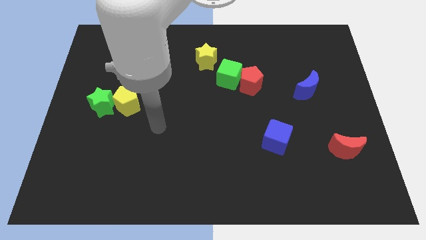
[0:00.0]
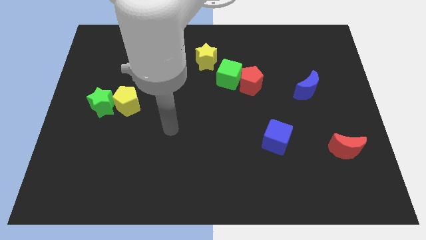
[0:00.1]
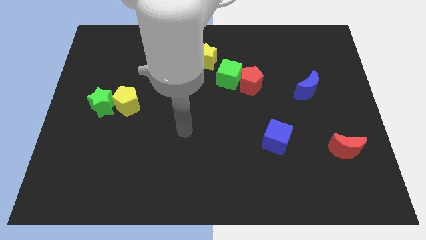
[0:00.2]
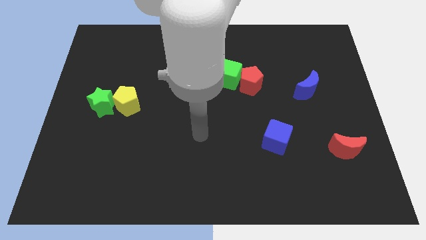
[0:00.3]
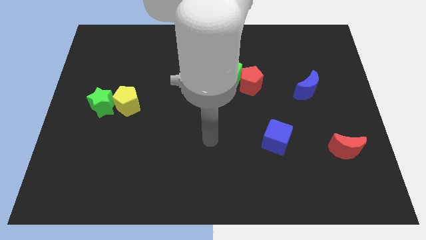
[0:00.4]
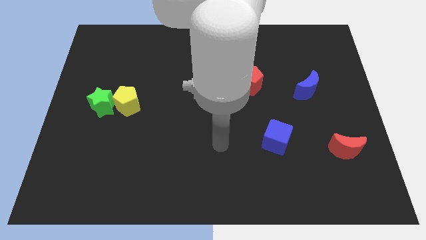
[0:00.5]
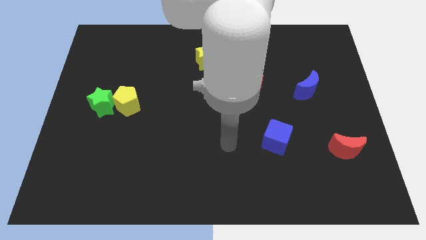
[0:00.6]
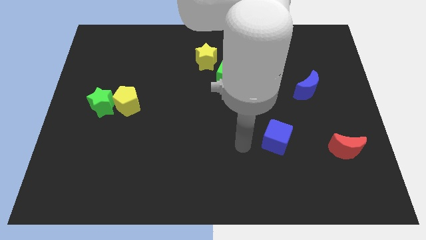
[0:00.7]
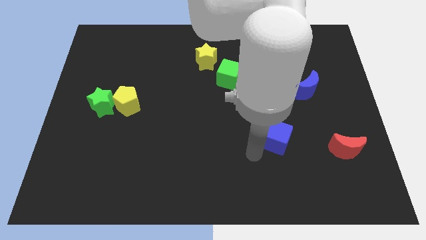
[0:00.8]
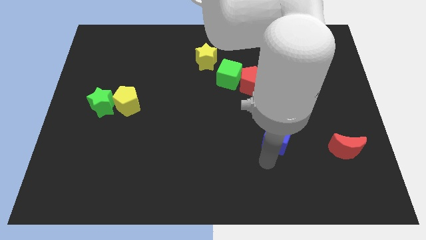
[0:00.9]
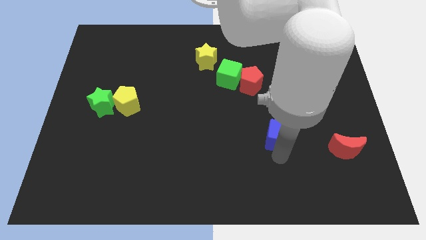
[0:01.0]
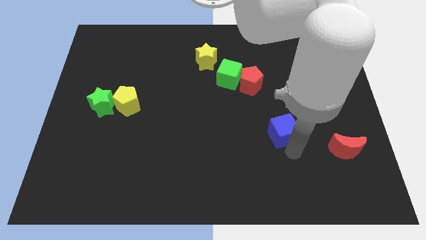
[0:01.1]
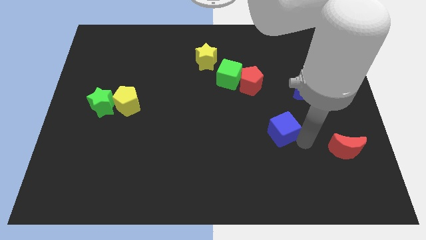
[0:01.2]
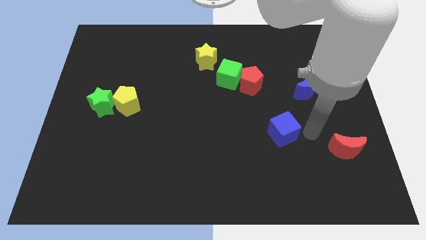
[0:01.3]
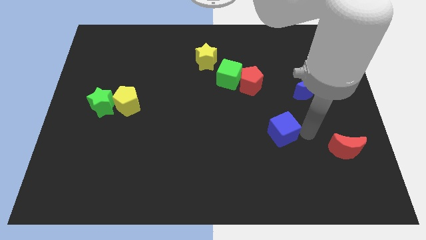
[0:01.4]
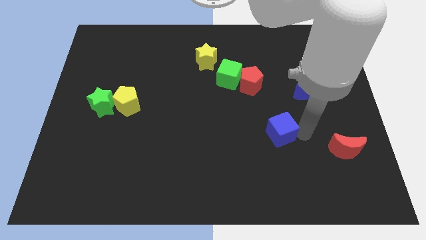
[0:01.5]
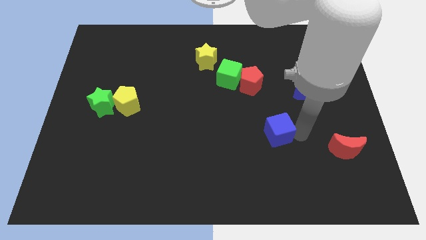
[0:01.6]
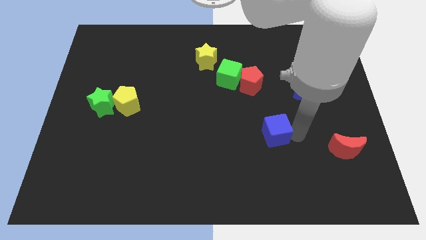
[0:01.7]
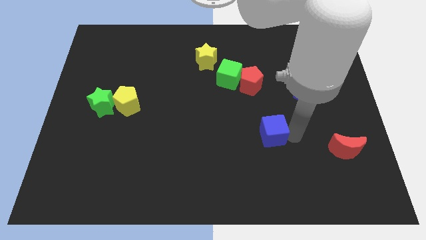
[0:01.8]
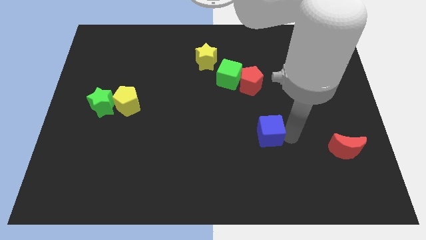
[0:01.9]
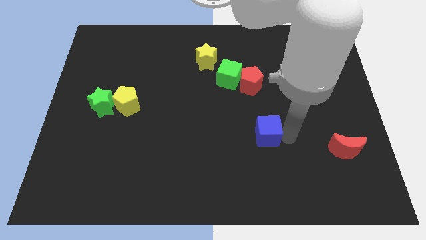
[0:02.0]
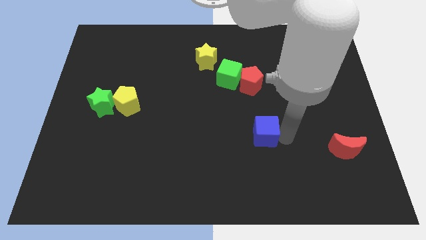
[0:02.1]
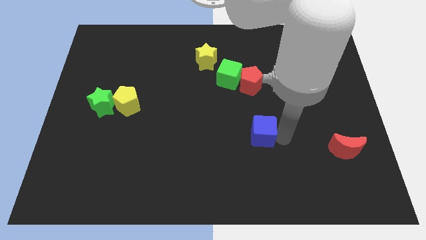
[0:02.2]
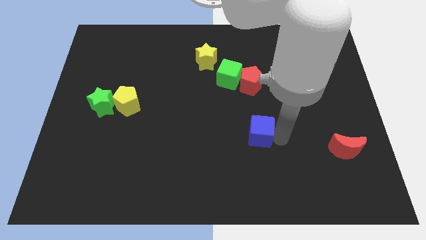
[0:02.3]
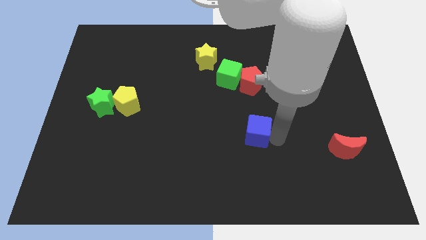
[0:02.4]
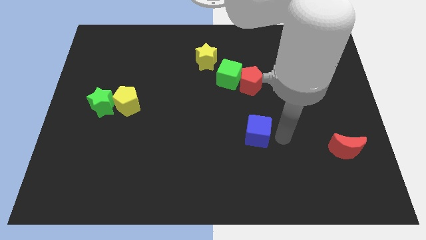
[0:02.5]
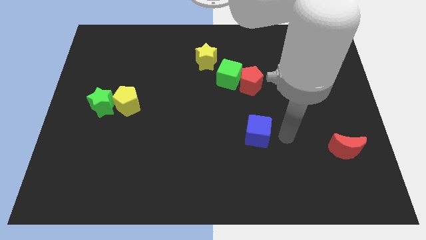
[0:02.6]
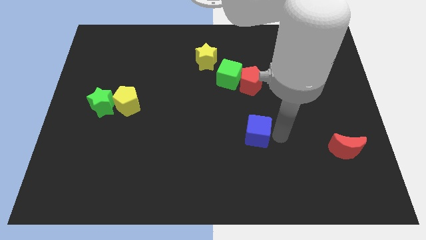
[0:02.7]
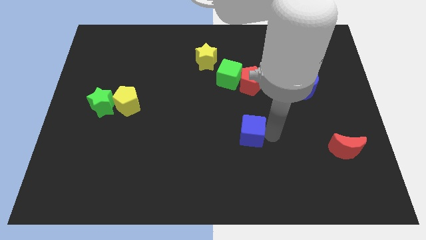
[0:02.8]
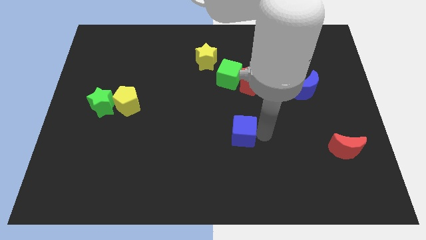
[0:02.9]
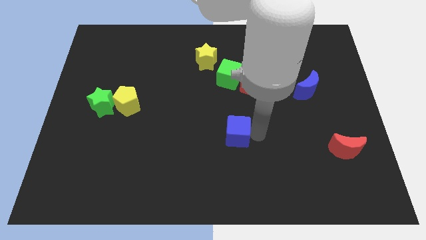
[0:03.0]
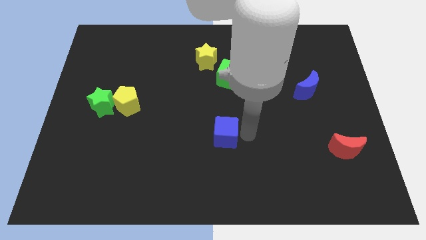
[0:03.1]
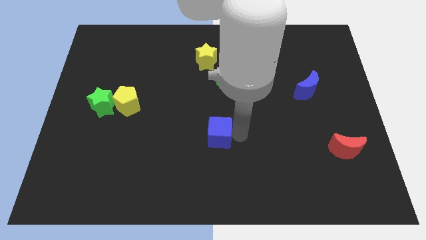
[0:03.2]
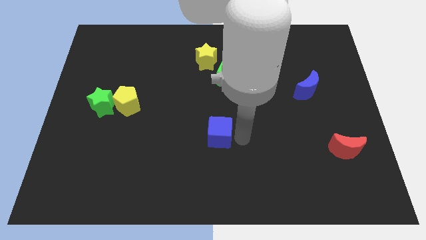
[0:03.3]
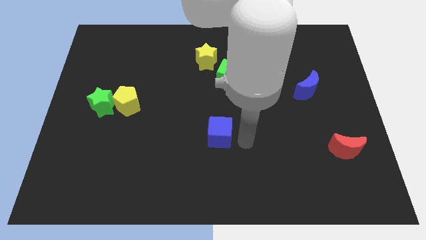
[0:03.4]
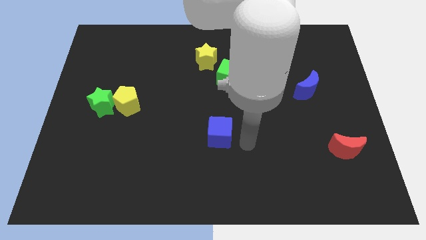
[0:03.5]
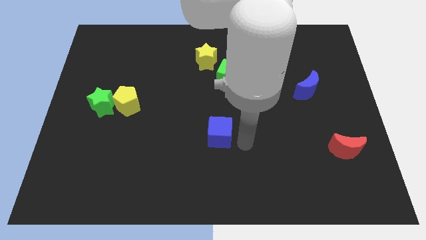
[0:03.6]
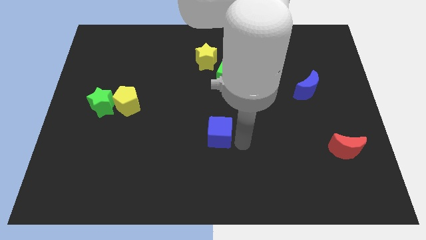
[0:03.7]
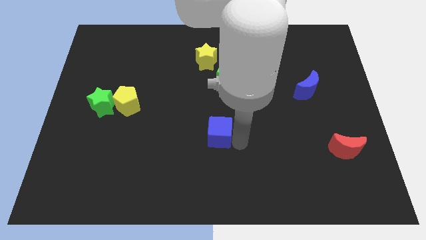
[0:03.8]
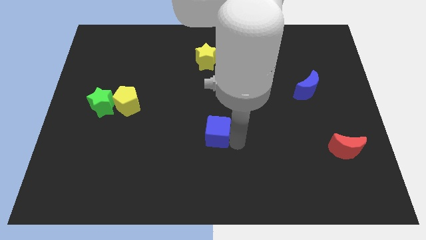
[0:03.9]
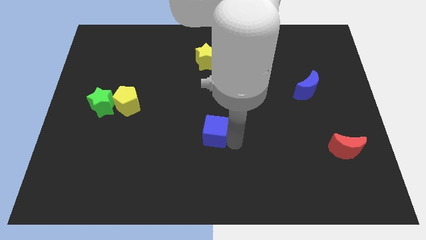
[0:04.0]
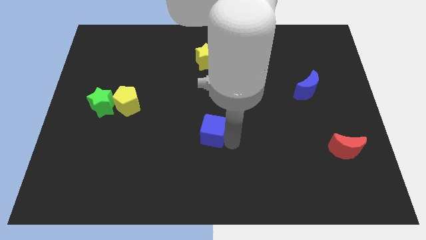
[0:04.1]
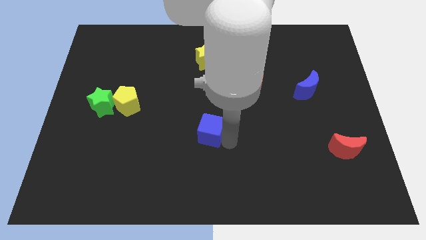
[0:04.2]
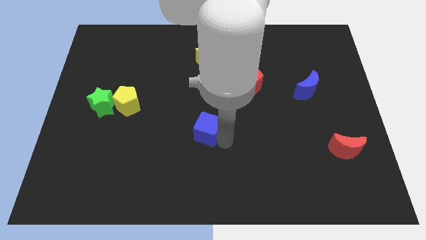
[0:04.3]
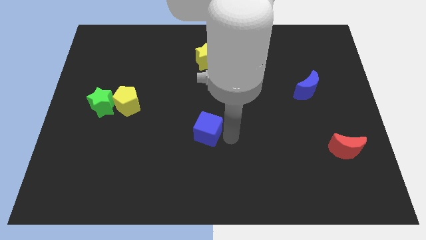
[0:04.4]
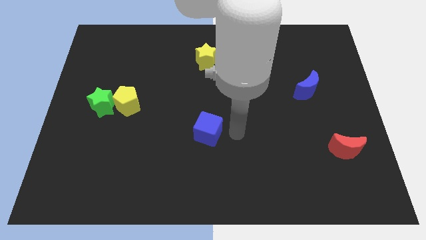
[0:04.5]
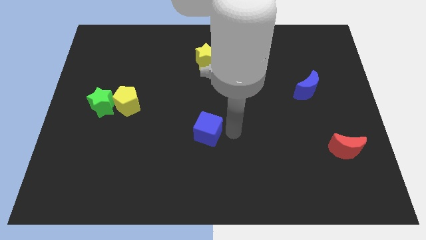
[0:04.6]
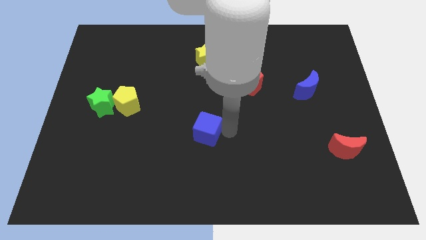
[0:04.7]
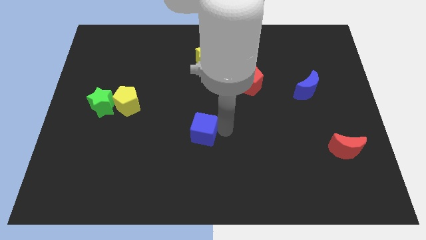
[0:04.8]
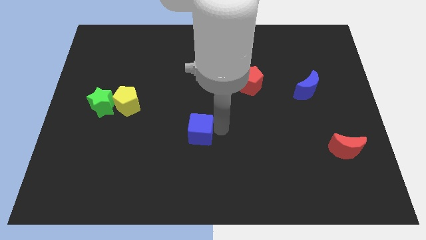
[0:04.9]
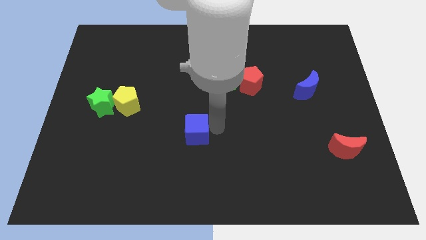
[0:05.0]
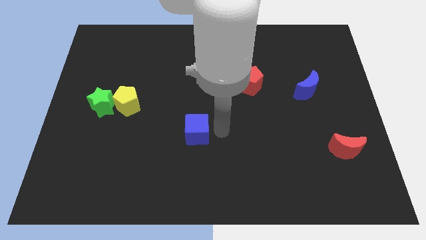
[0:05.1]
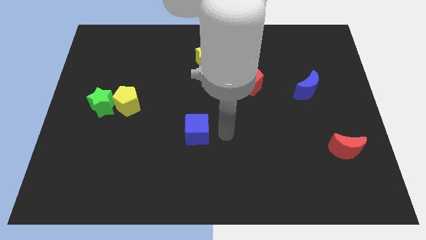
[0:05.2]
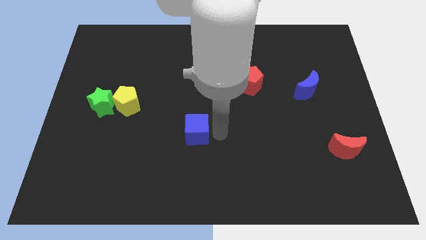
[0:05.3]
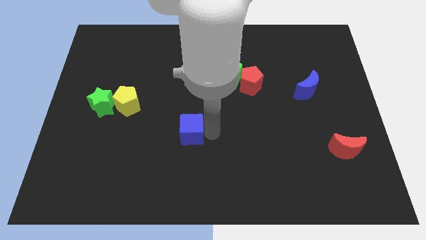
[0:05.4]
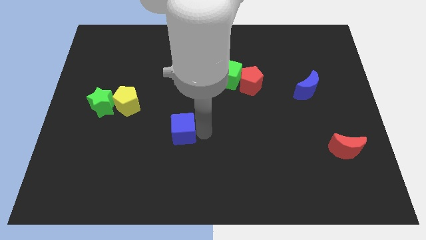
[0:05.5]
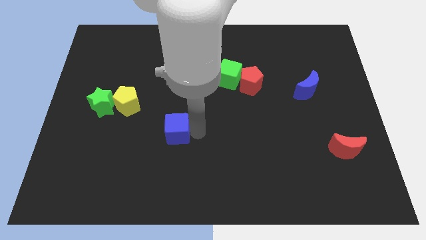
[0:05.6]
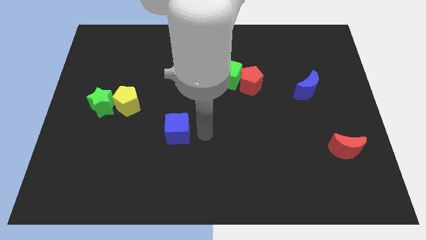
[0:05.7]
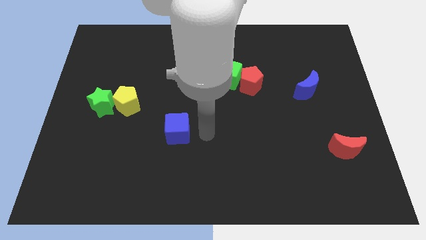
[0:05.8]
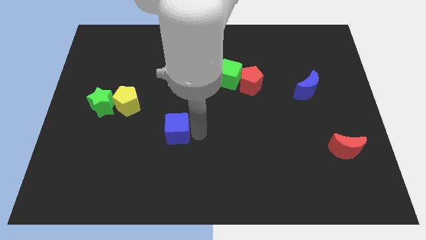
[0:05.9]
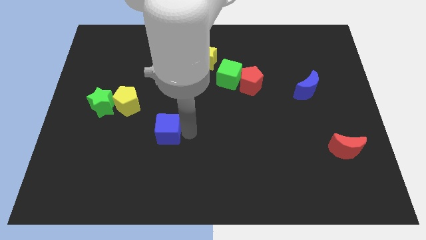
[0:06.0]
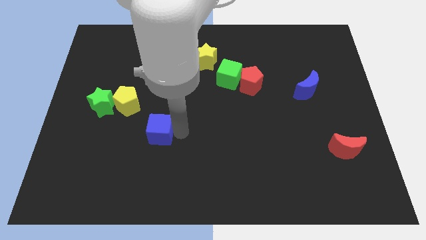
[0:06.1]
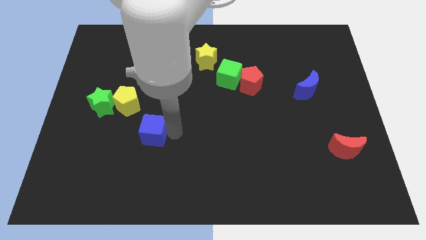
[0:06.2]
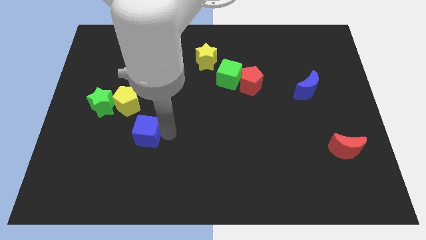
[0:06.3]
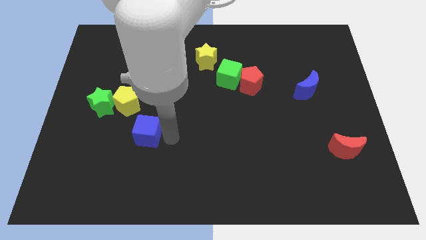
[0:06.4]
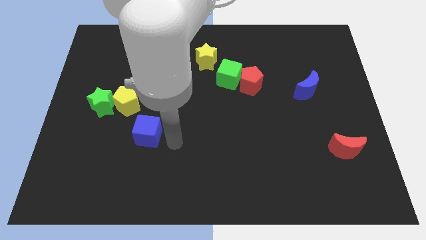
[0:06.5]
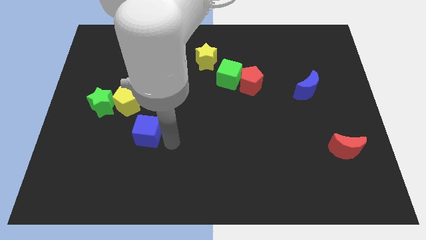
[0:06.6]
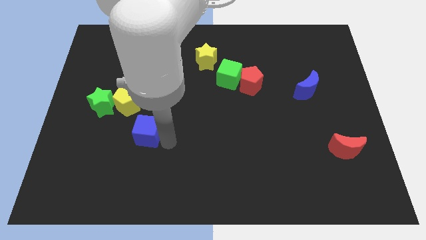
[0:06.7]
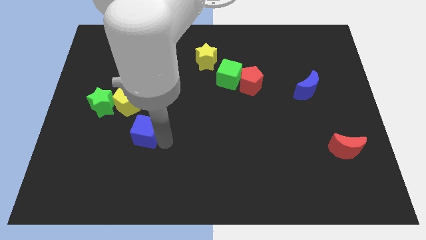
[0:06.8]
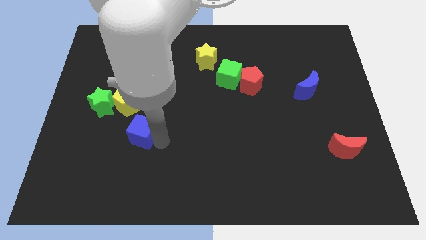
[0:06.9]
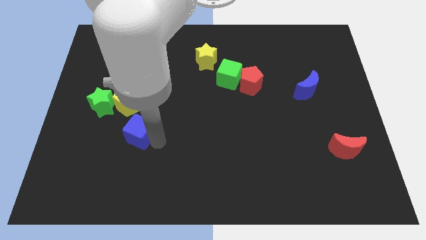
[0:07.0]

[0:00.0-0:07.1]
put the blue cube diagonally down and to the right of the green star
